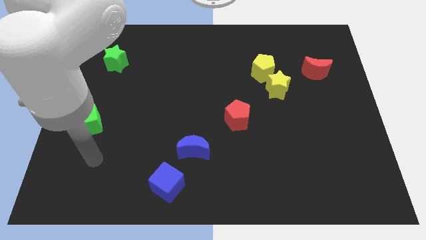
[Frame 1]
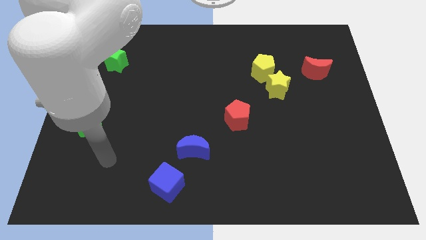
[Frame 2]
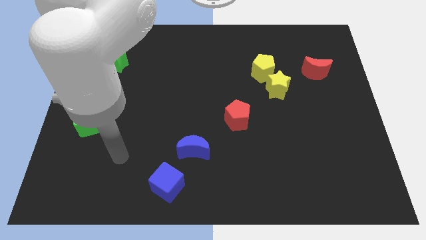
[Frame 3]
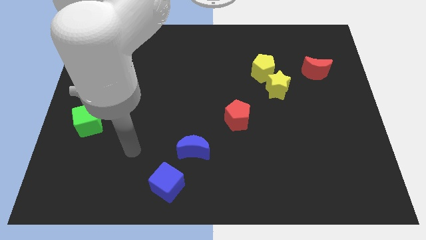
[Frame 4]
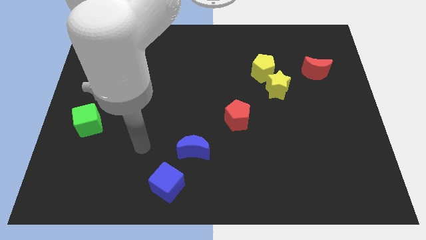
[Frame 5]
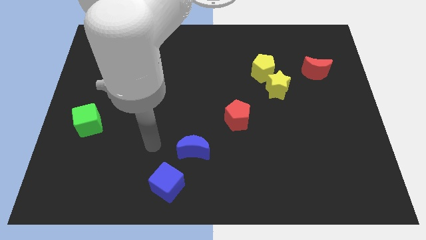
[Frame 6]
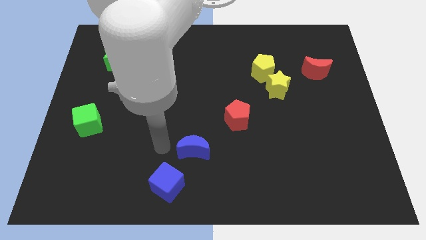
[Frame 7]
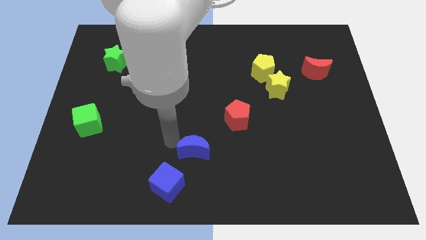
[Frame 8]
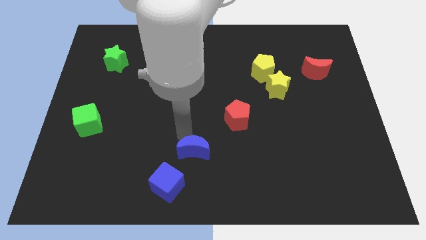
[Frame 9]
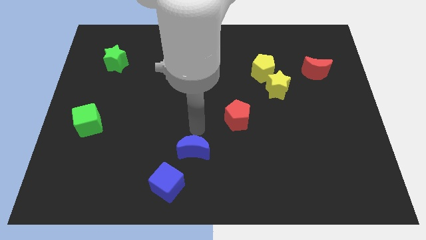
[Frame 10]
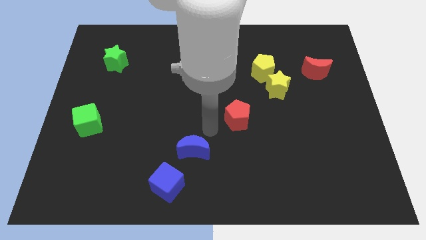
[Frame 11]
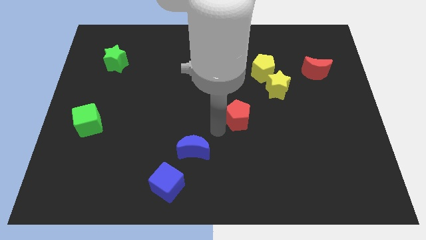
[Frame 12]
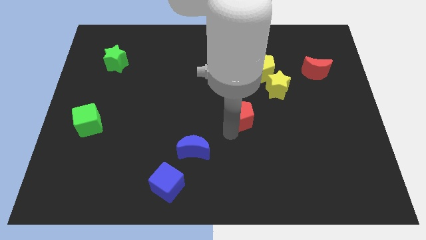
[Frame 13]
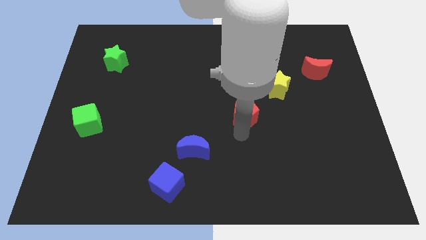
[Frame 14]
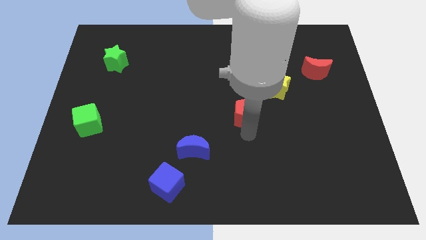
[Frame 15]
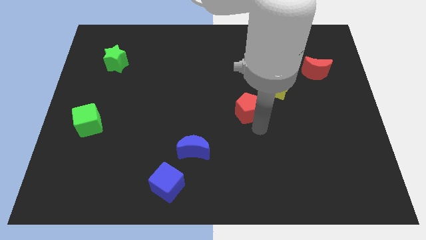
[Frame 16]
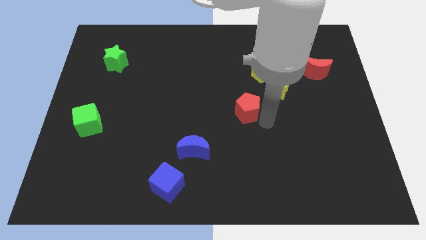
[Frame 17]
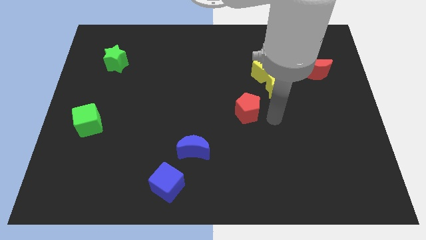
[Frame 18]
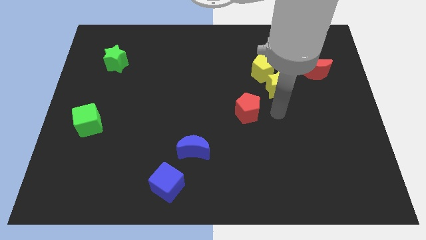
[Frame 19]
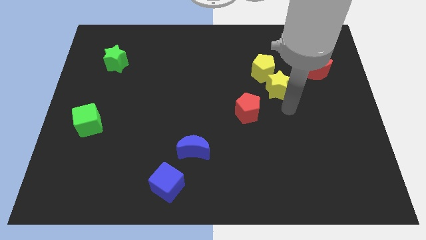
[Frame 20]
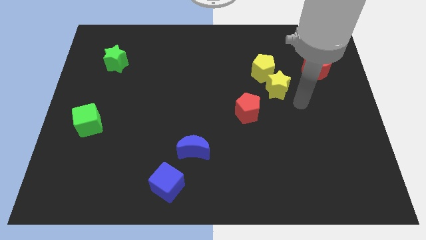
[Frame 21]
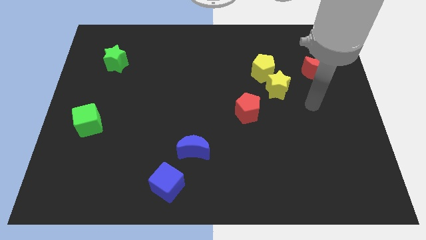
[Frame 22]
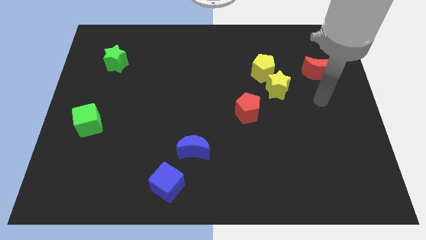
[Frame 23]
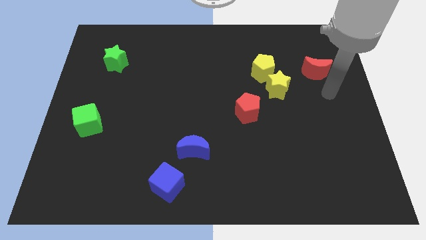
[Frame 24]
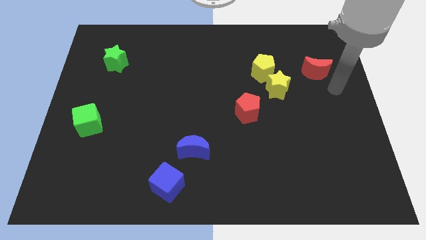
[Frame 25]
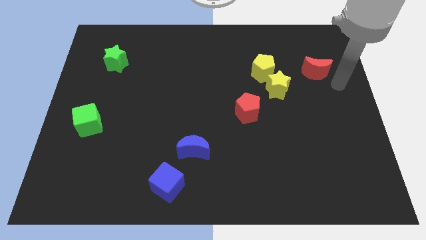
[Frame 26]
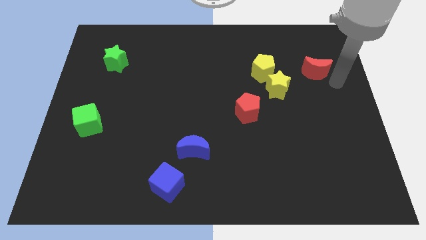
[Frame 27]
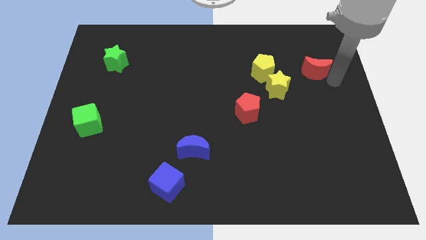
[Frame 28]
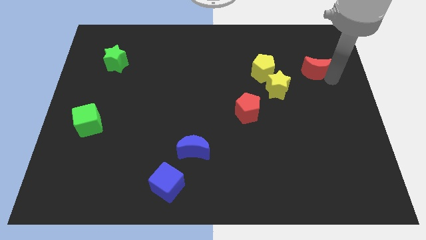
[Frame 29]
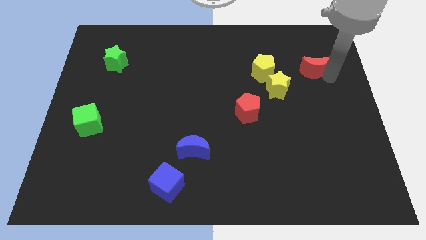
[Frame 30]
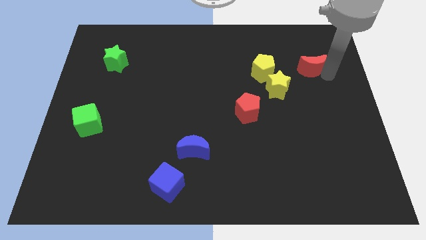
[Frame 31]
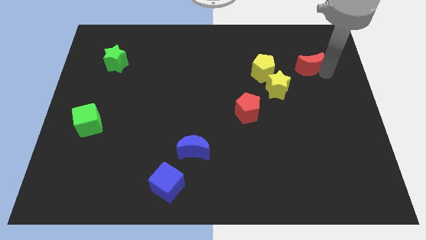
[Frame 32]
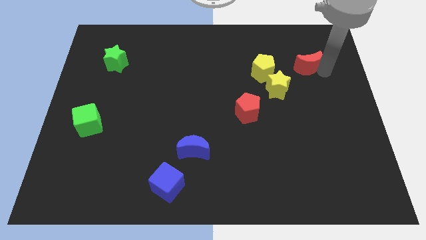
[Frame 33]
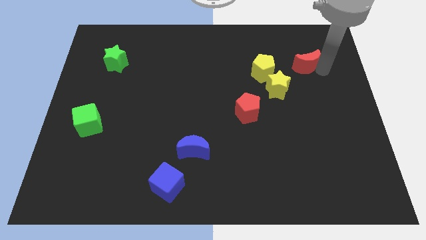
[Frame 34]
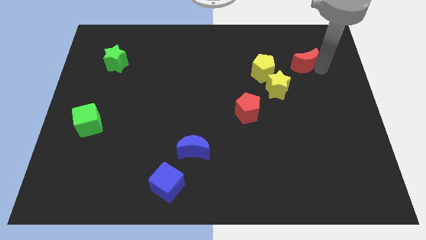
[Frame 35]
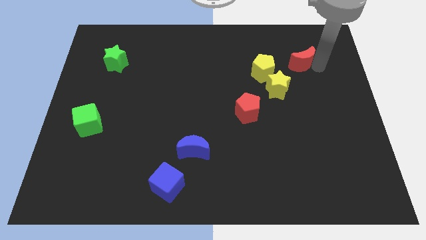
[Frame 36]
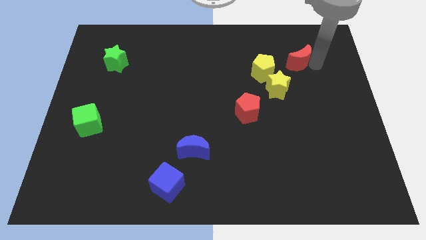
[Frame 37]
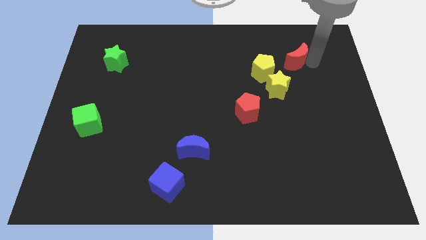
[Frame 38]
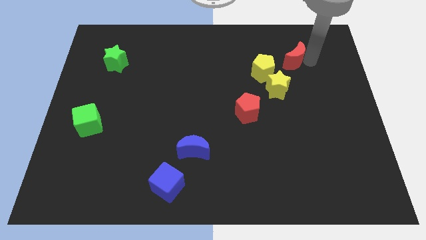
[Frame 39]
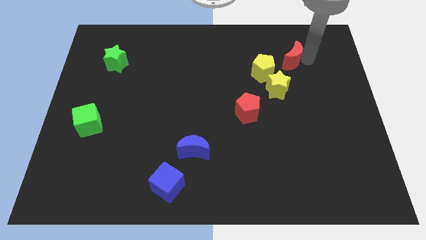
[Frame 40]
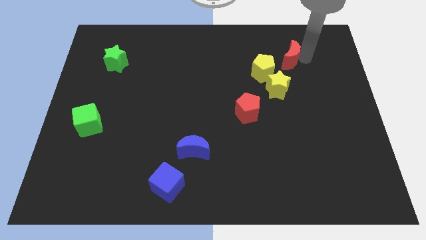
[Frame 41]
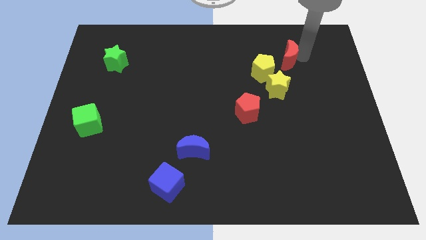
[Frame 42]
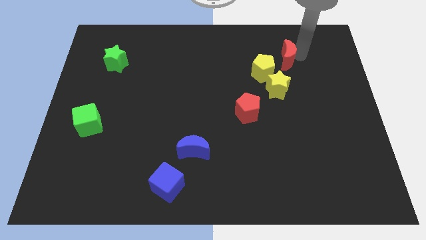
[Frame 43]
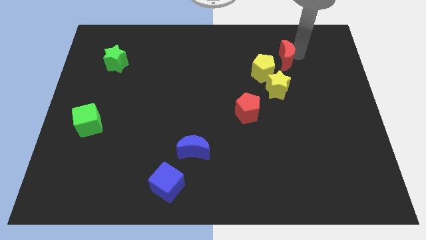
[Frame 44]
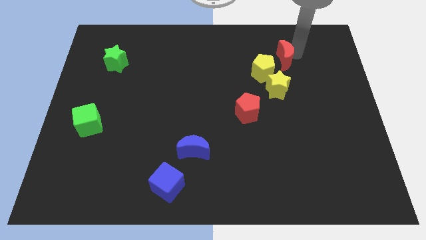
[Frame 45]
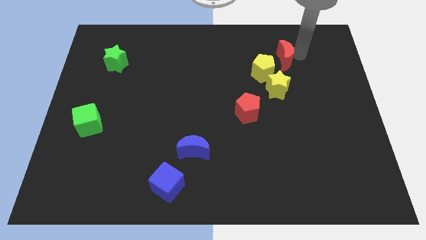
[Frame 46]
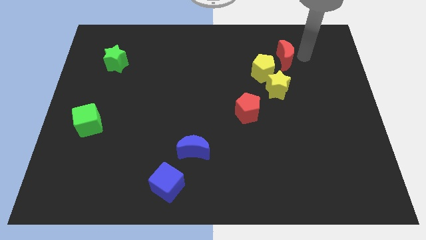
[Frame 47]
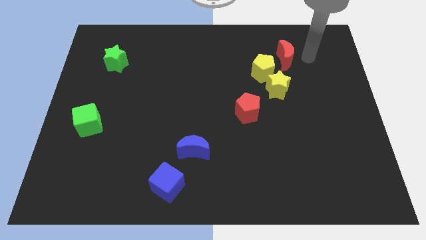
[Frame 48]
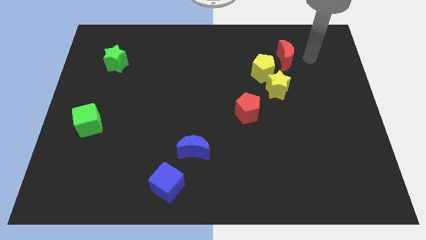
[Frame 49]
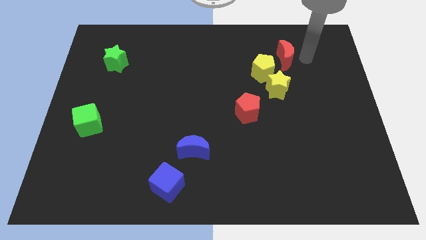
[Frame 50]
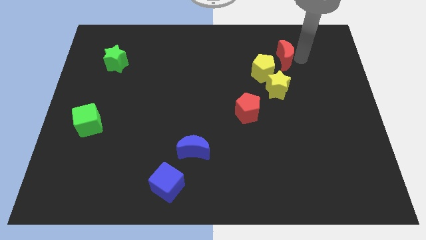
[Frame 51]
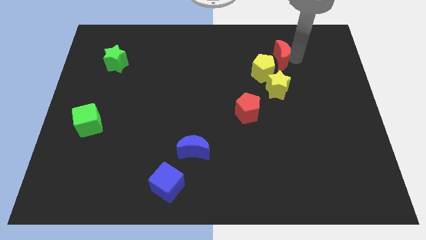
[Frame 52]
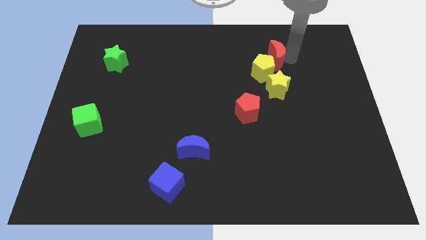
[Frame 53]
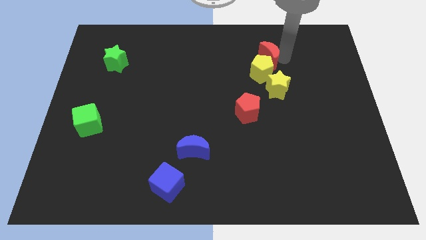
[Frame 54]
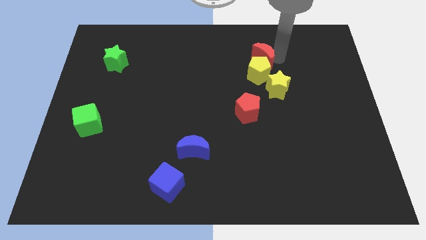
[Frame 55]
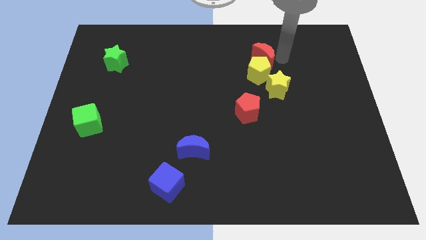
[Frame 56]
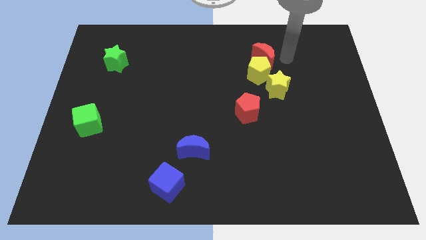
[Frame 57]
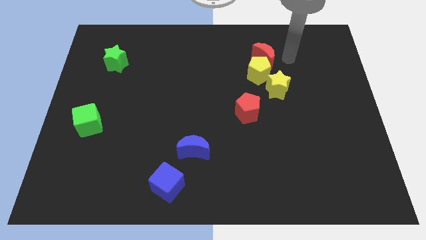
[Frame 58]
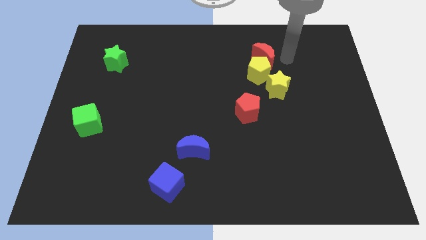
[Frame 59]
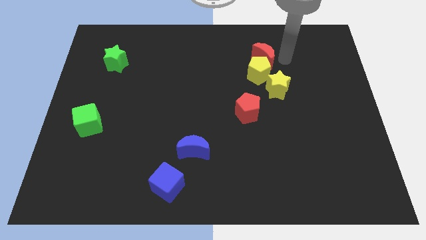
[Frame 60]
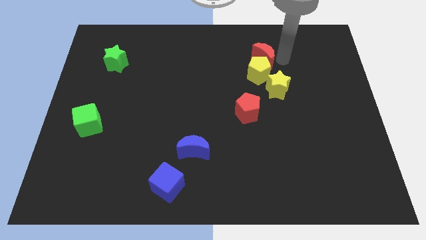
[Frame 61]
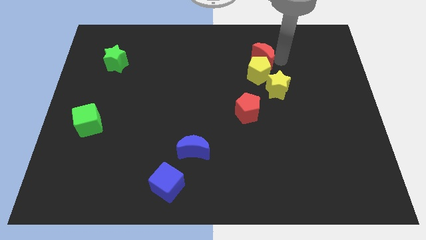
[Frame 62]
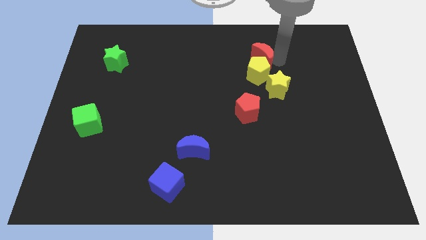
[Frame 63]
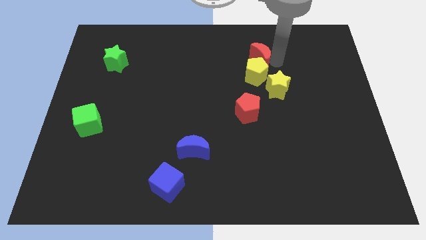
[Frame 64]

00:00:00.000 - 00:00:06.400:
move the red moon diagonally up and to the left of the yellow star
